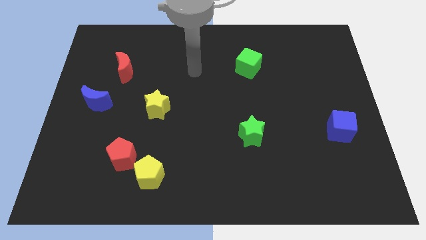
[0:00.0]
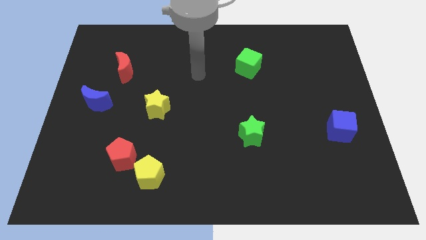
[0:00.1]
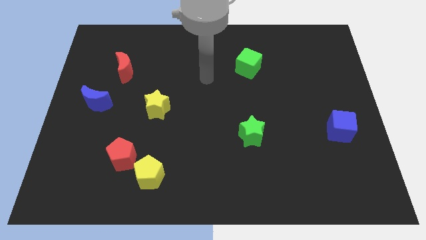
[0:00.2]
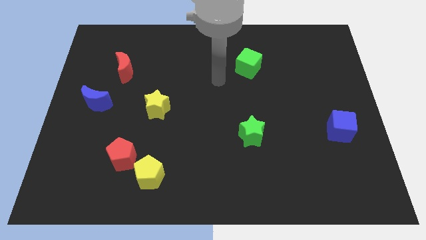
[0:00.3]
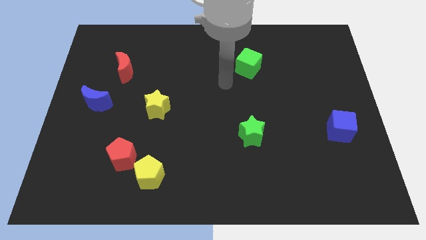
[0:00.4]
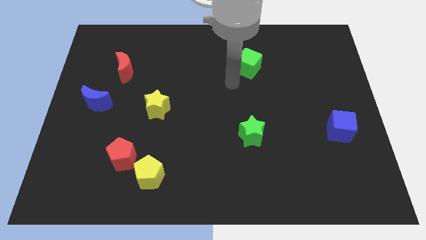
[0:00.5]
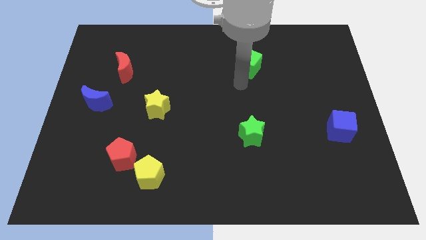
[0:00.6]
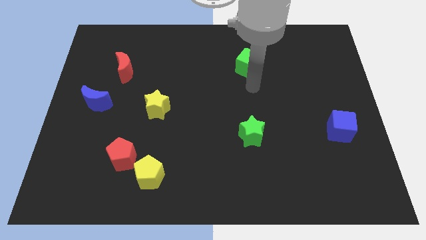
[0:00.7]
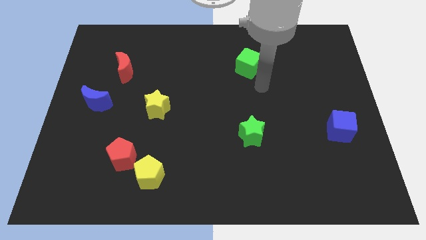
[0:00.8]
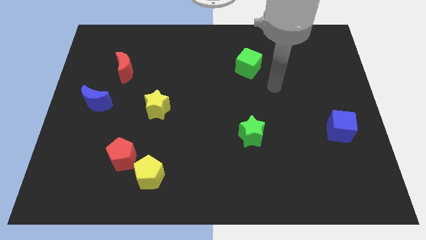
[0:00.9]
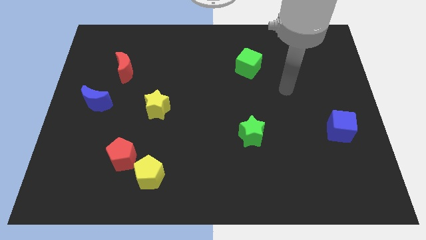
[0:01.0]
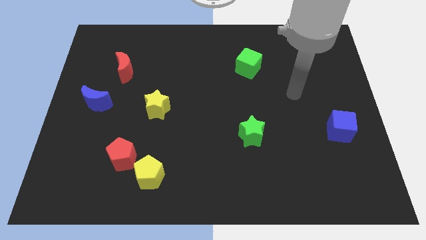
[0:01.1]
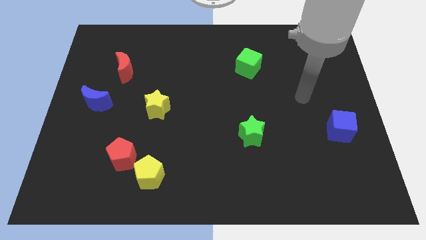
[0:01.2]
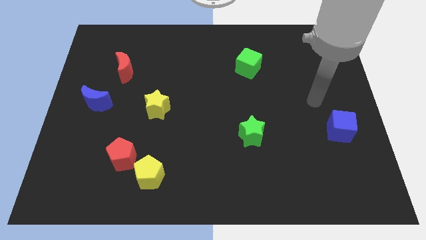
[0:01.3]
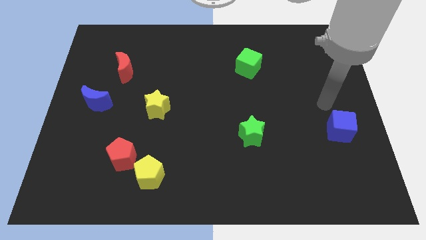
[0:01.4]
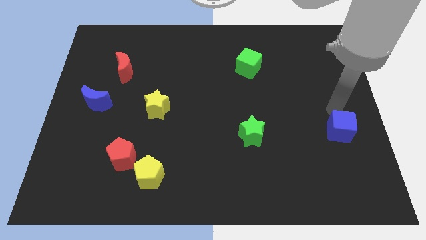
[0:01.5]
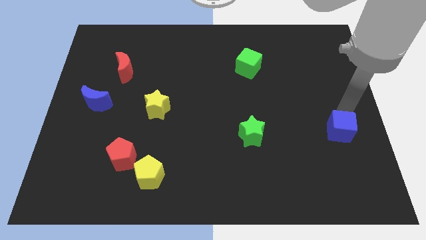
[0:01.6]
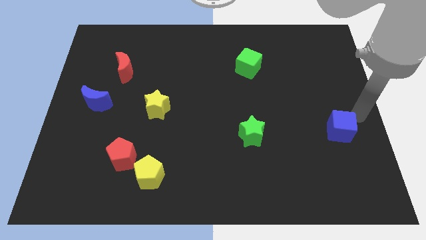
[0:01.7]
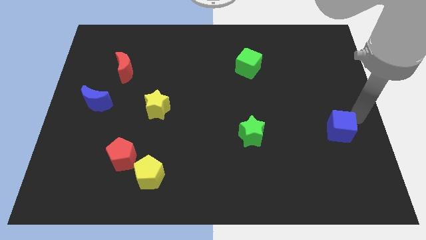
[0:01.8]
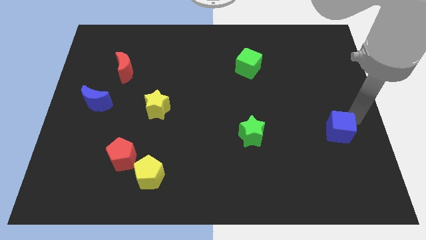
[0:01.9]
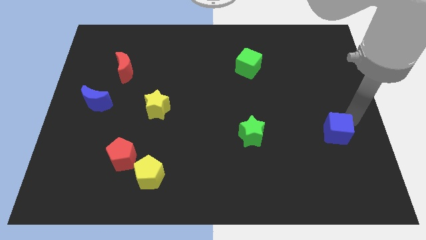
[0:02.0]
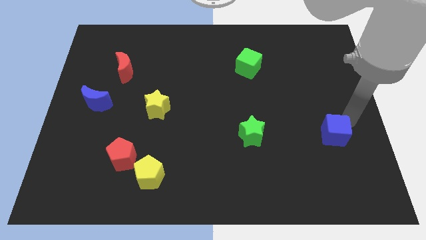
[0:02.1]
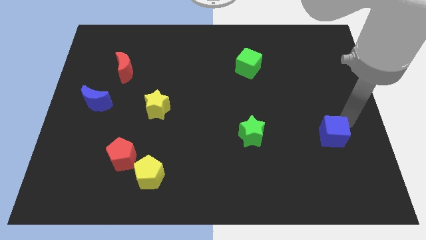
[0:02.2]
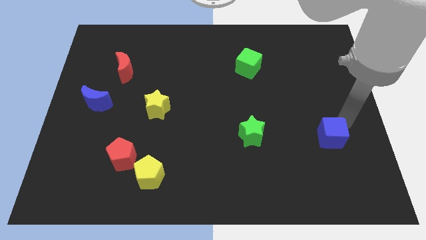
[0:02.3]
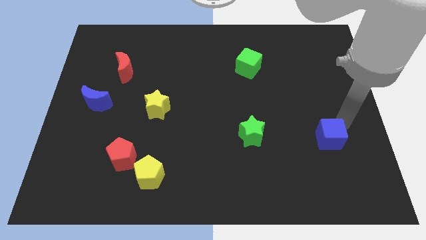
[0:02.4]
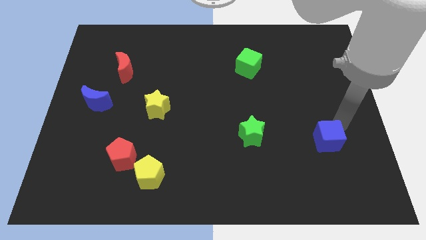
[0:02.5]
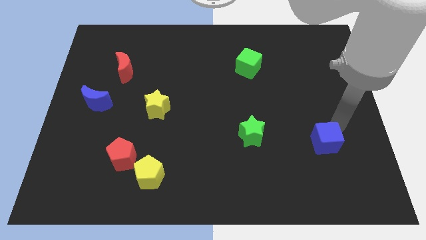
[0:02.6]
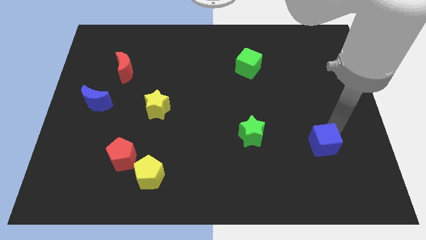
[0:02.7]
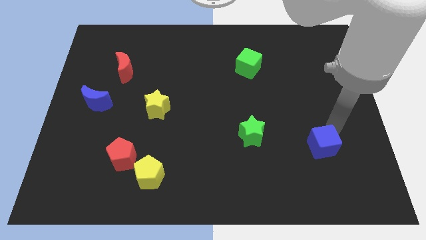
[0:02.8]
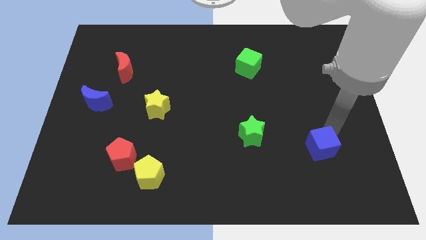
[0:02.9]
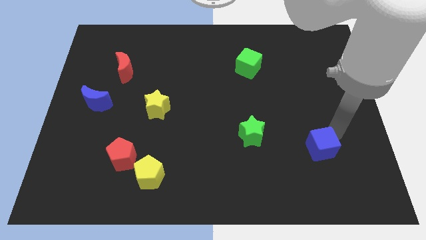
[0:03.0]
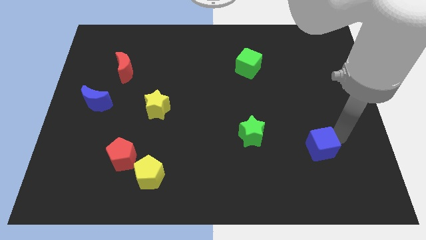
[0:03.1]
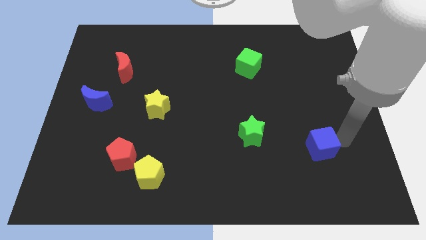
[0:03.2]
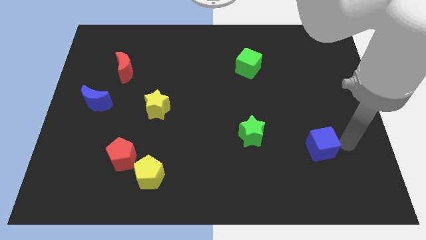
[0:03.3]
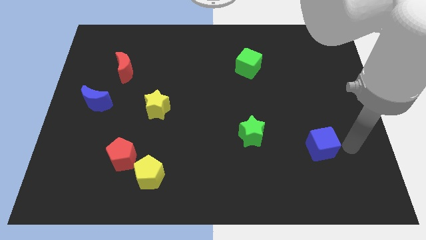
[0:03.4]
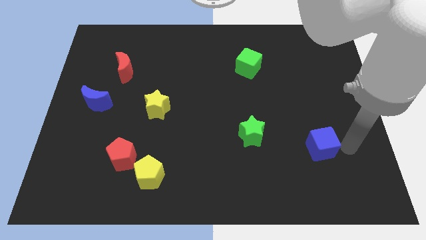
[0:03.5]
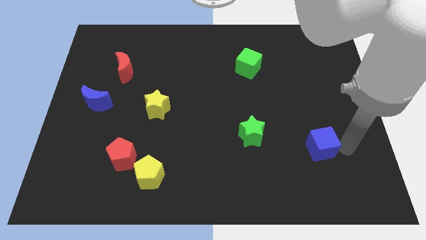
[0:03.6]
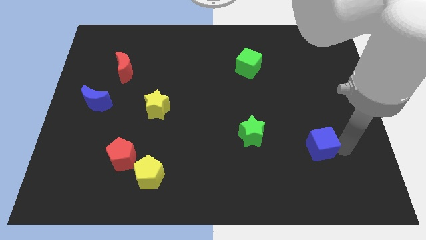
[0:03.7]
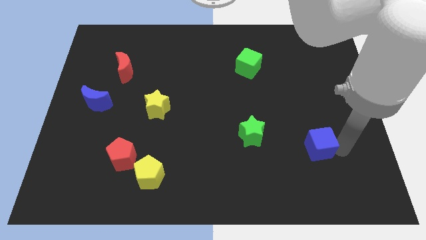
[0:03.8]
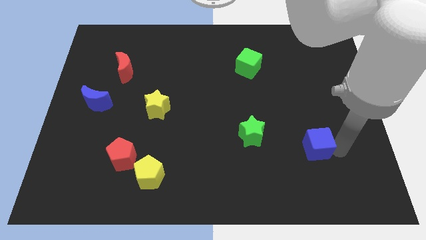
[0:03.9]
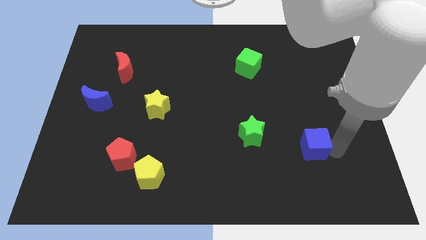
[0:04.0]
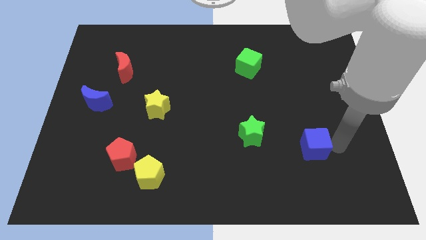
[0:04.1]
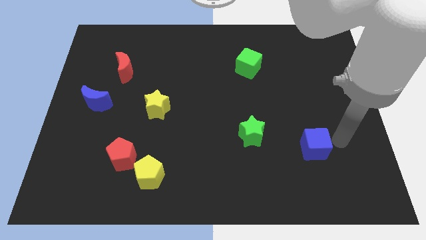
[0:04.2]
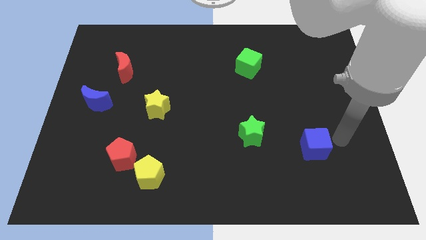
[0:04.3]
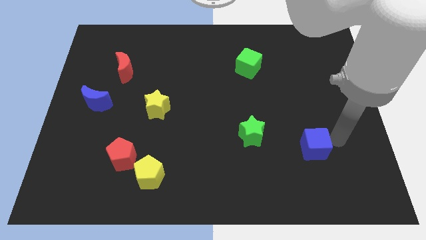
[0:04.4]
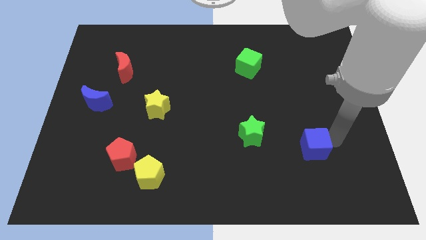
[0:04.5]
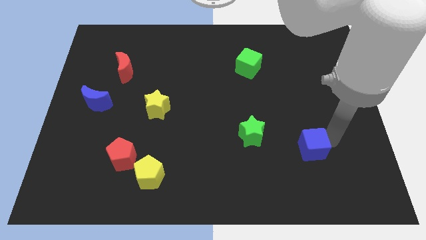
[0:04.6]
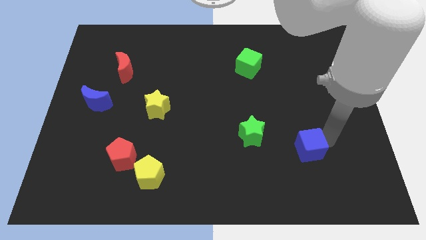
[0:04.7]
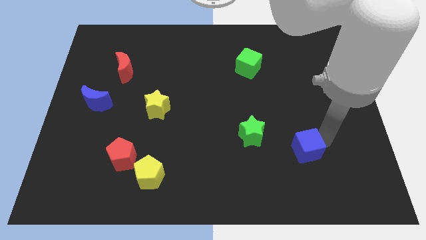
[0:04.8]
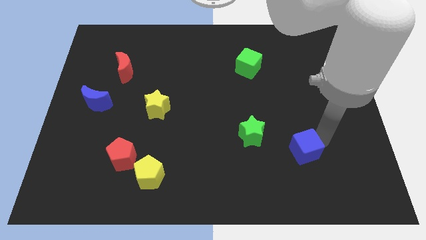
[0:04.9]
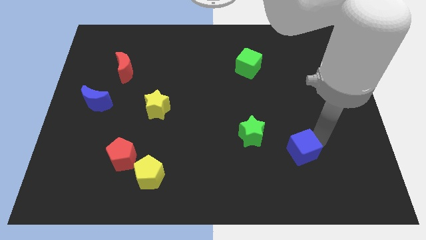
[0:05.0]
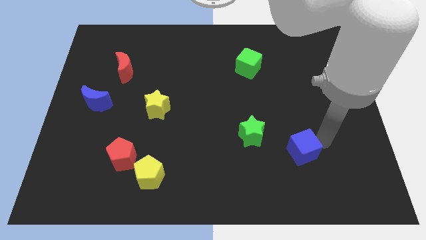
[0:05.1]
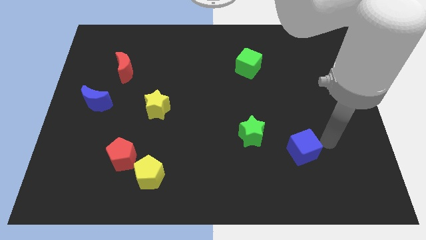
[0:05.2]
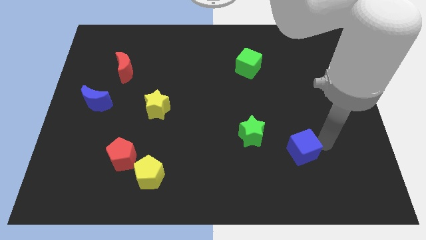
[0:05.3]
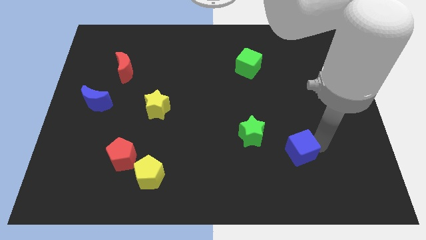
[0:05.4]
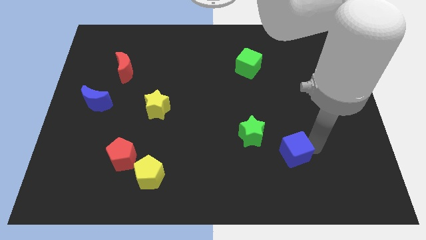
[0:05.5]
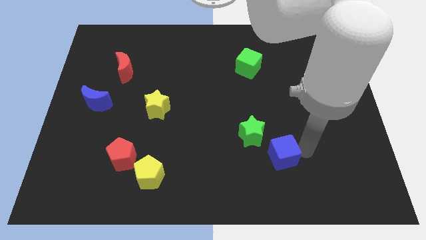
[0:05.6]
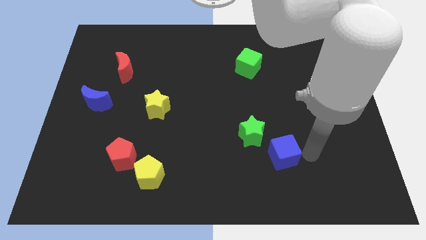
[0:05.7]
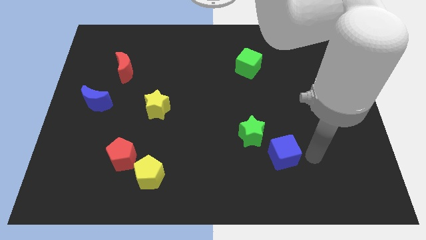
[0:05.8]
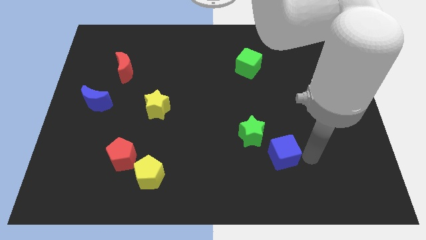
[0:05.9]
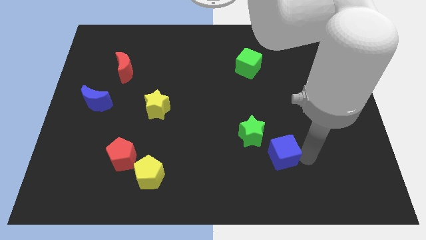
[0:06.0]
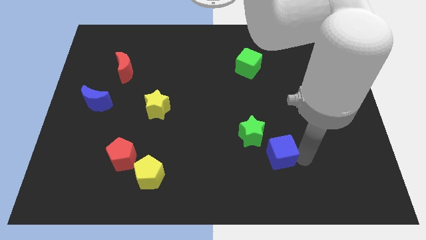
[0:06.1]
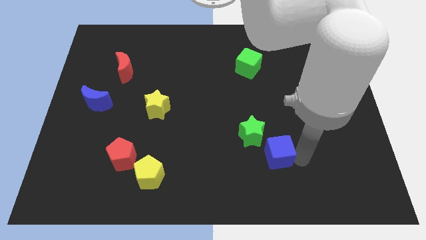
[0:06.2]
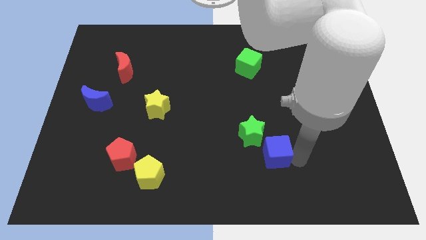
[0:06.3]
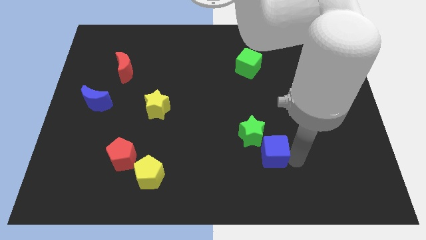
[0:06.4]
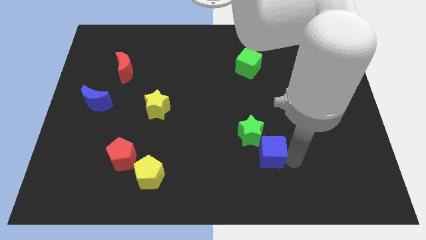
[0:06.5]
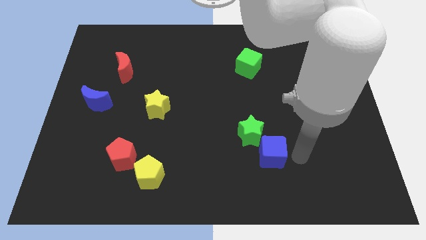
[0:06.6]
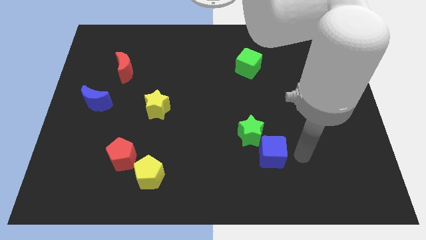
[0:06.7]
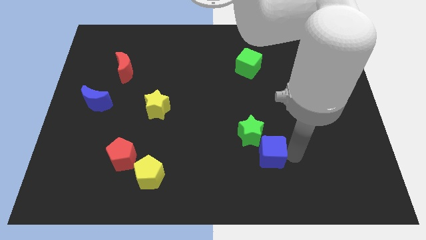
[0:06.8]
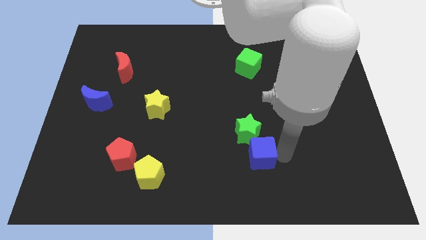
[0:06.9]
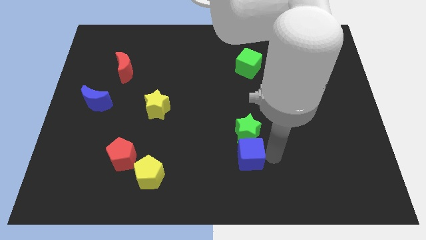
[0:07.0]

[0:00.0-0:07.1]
slide the blue cube to the bottom left side of the green star
